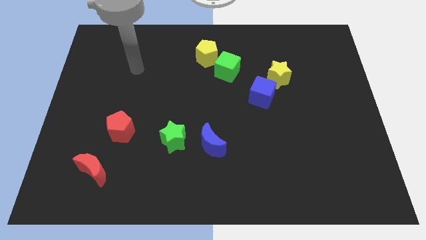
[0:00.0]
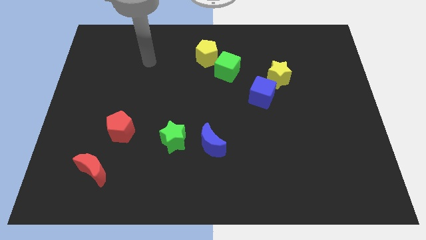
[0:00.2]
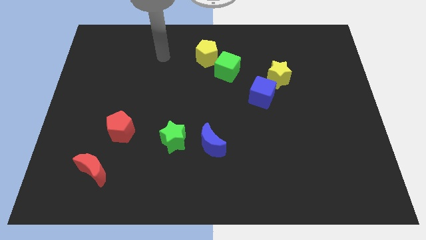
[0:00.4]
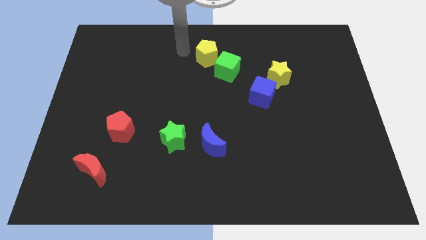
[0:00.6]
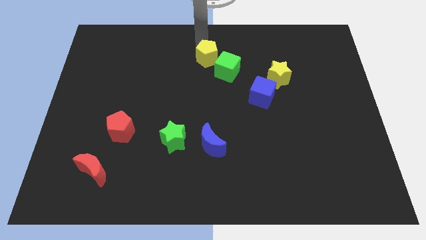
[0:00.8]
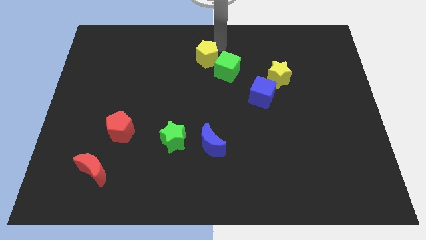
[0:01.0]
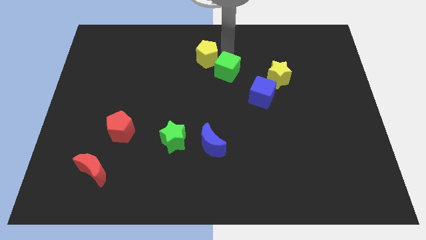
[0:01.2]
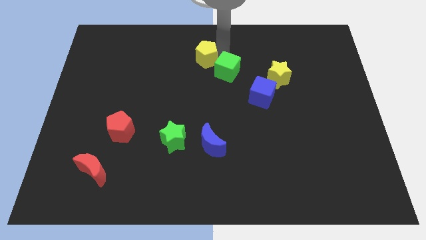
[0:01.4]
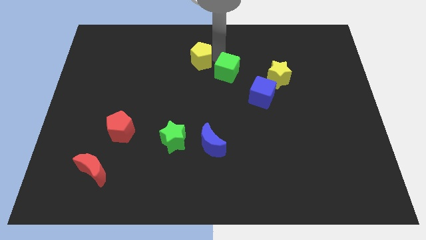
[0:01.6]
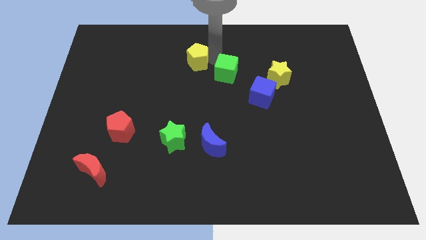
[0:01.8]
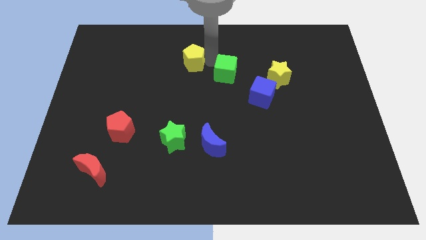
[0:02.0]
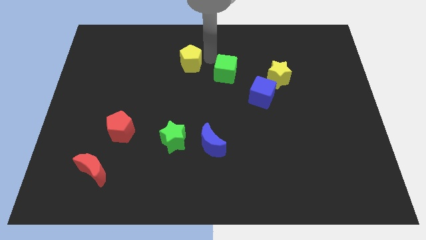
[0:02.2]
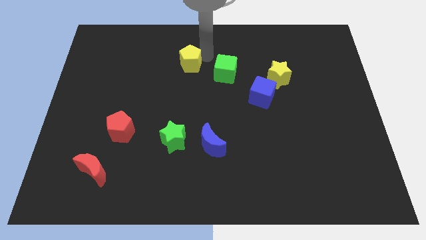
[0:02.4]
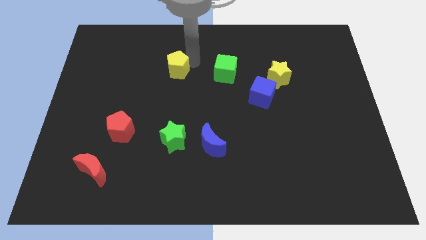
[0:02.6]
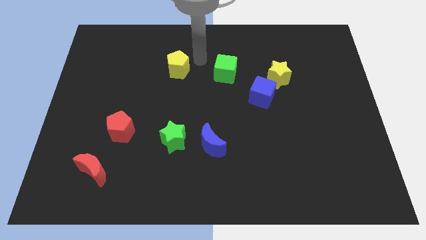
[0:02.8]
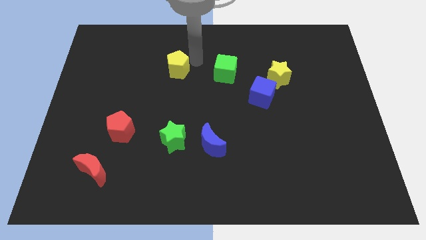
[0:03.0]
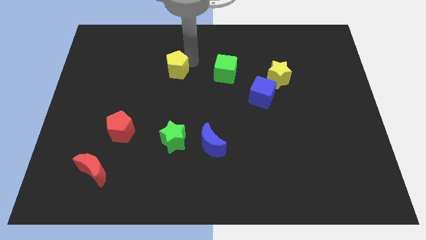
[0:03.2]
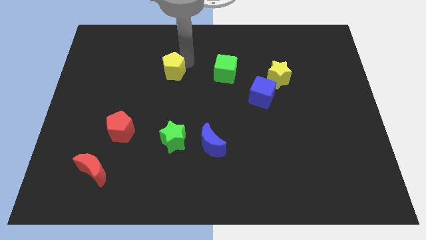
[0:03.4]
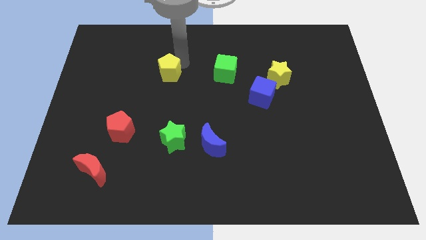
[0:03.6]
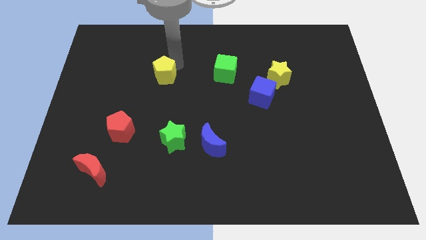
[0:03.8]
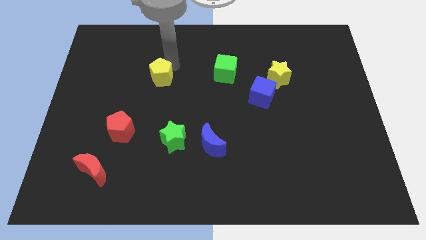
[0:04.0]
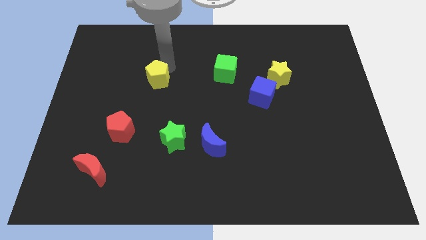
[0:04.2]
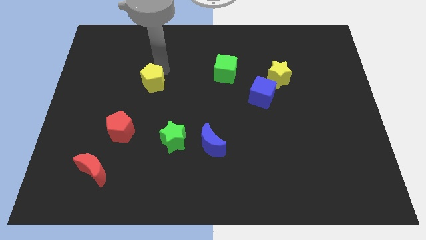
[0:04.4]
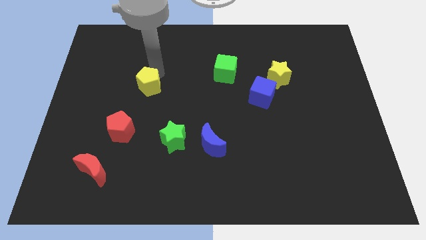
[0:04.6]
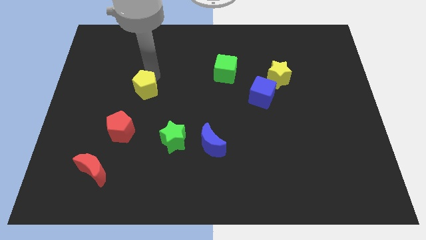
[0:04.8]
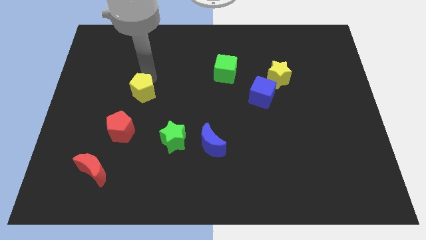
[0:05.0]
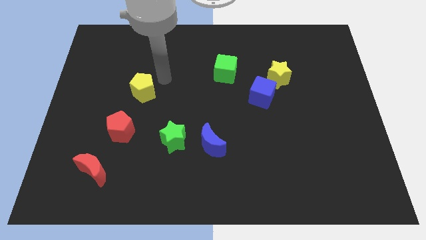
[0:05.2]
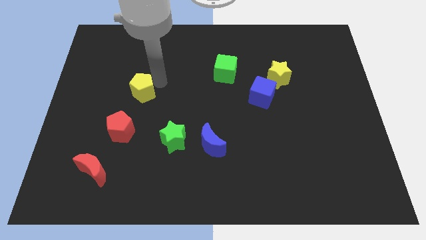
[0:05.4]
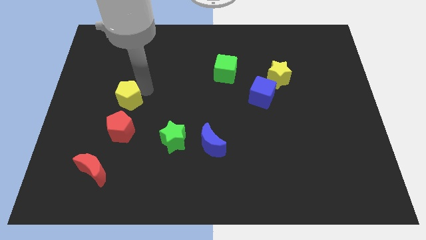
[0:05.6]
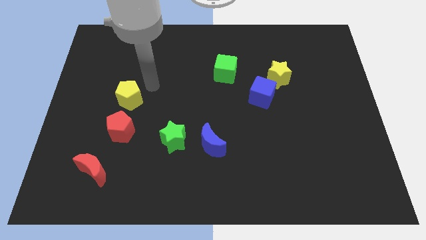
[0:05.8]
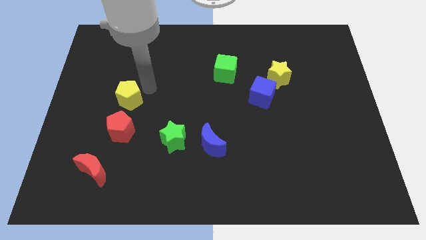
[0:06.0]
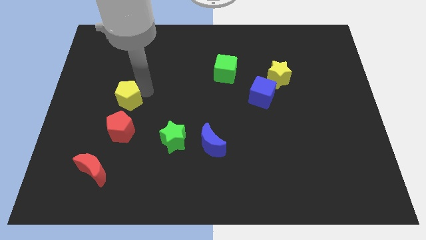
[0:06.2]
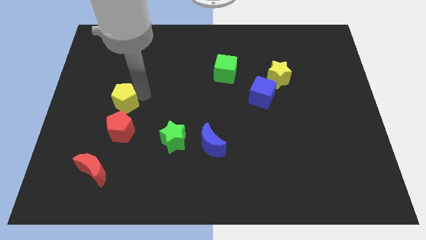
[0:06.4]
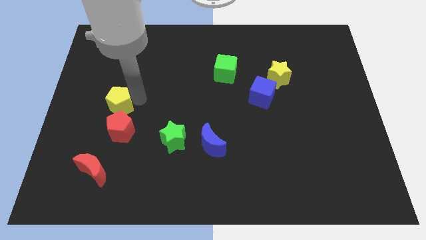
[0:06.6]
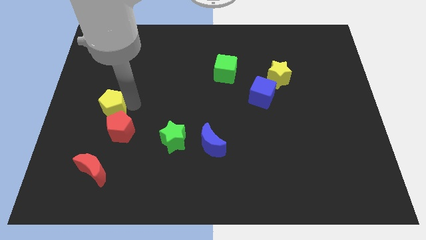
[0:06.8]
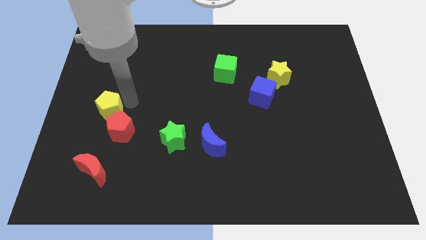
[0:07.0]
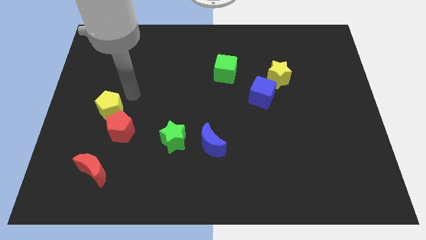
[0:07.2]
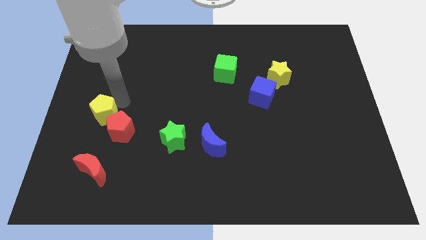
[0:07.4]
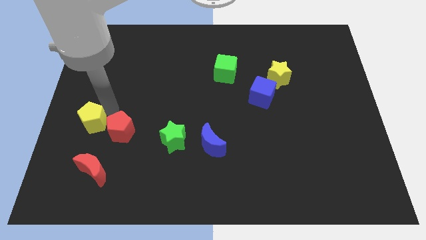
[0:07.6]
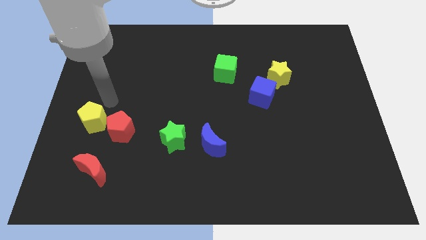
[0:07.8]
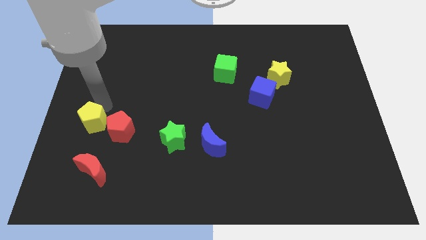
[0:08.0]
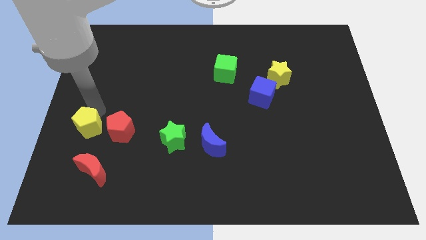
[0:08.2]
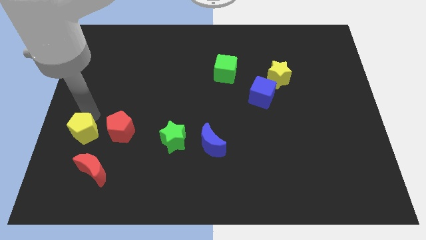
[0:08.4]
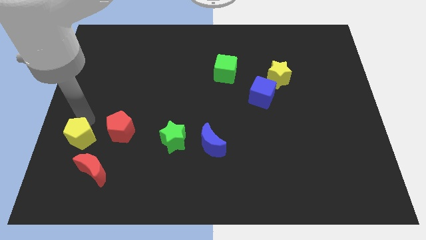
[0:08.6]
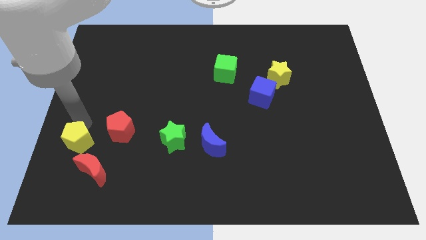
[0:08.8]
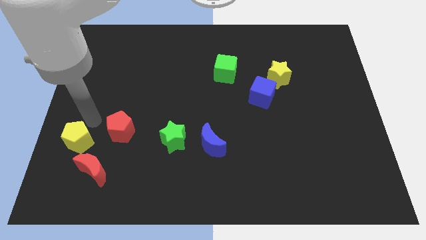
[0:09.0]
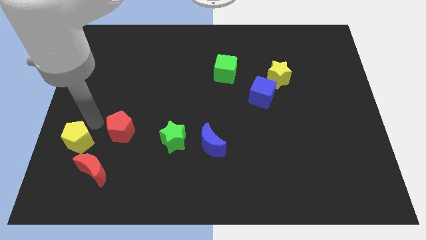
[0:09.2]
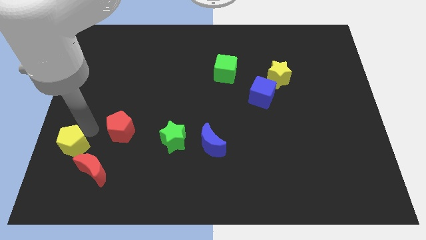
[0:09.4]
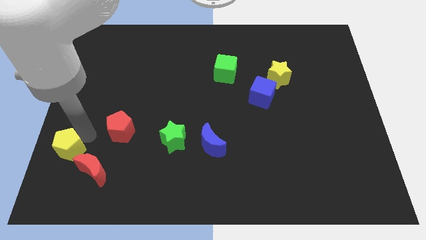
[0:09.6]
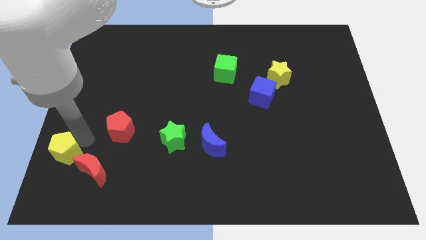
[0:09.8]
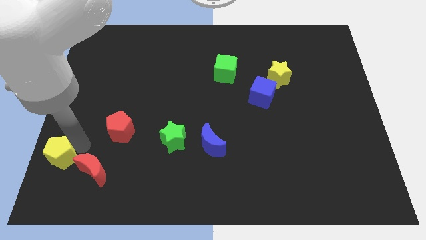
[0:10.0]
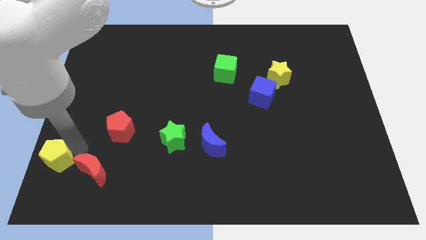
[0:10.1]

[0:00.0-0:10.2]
put the yellow pentagon to the bottom left corner

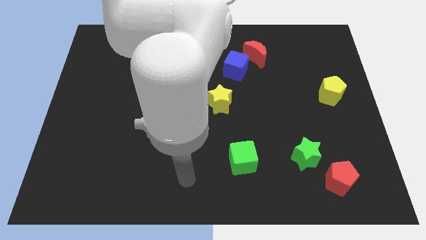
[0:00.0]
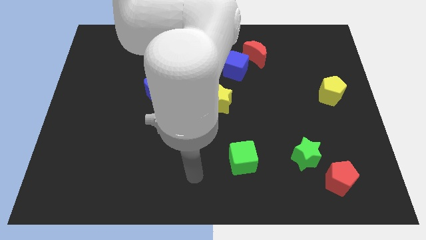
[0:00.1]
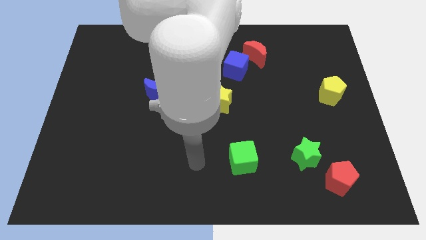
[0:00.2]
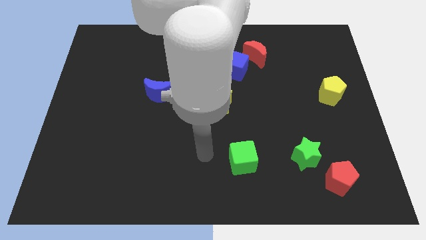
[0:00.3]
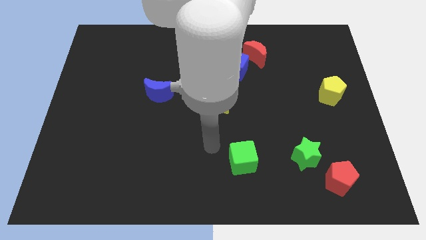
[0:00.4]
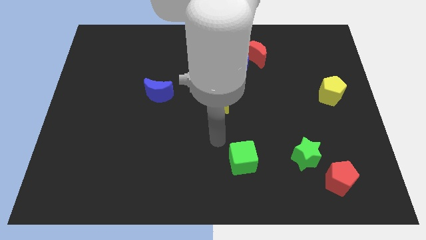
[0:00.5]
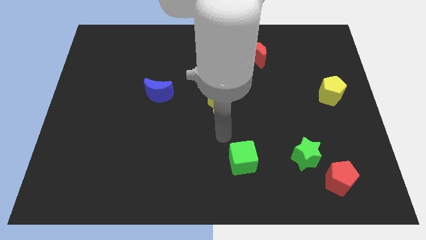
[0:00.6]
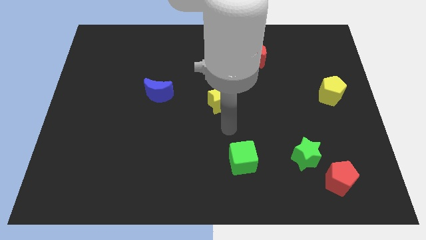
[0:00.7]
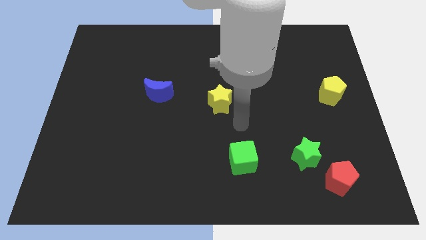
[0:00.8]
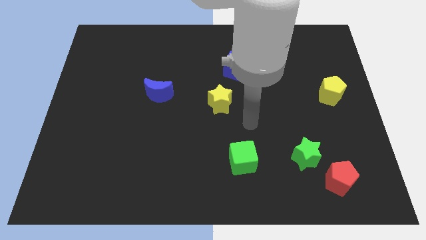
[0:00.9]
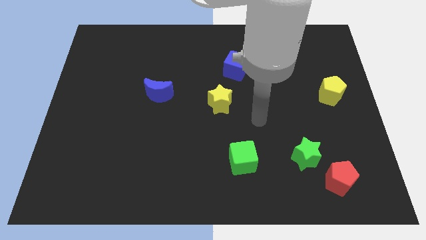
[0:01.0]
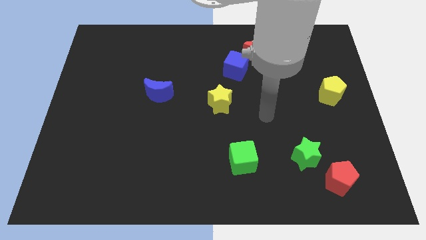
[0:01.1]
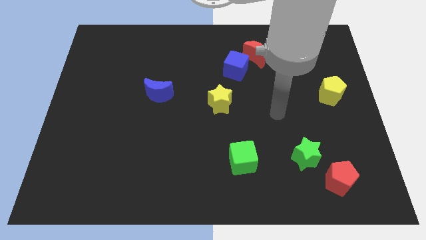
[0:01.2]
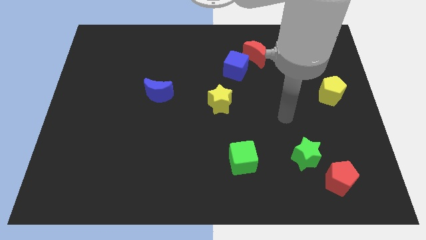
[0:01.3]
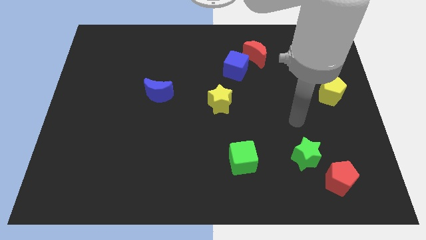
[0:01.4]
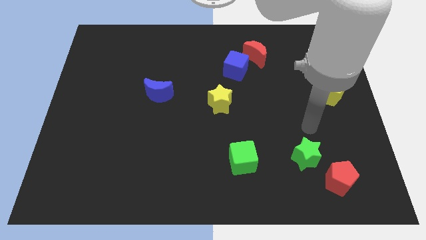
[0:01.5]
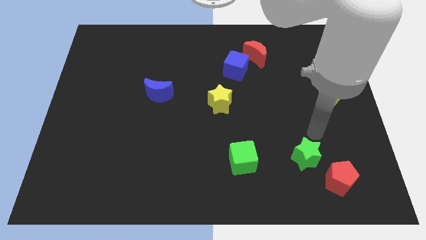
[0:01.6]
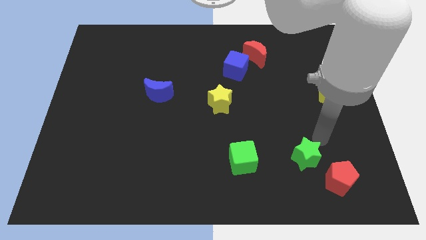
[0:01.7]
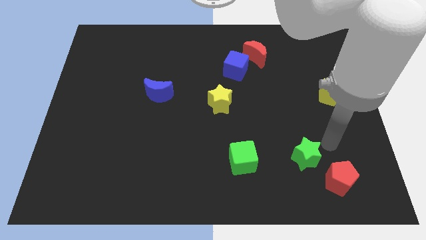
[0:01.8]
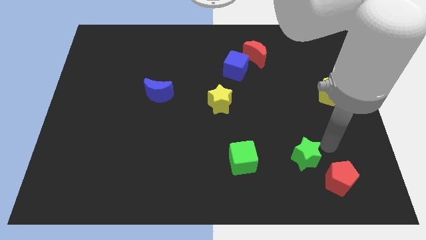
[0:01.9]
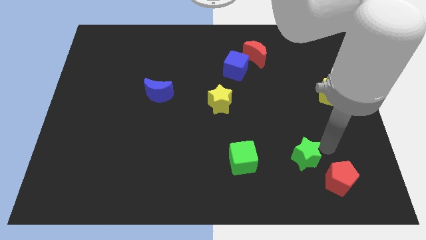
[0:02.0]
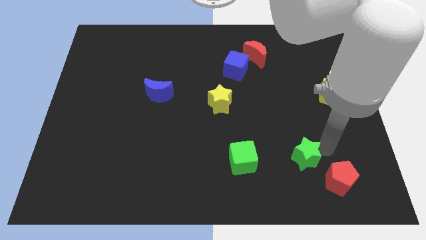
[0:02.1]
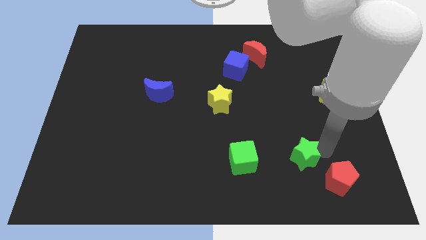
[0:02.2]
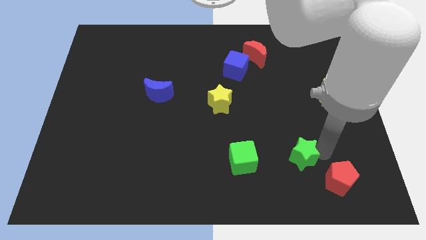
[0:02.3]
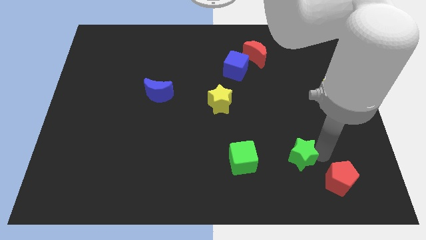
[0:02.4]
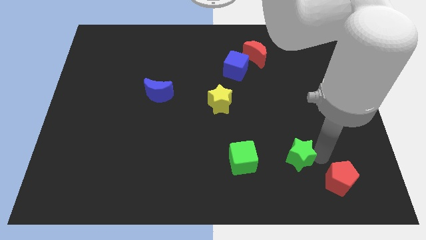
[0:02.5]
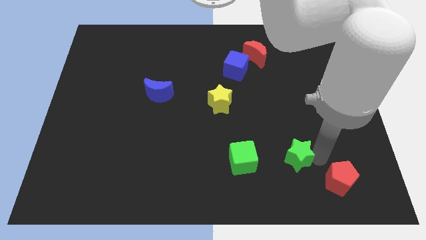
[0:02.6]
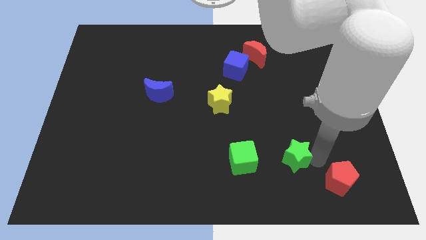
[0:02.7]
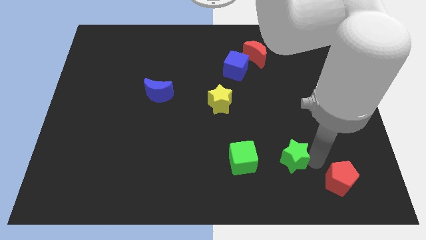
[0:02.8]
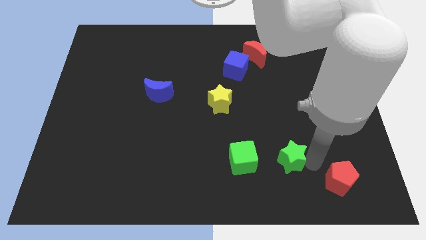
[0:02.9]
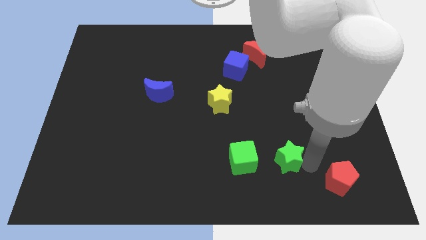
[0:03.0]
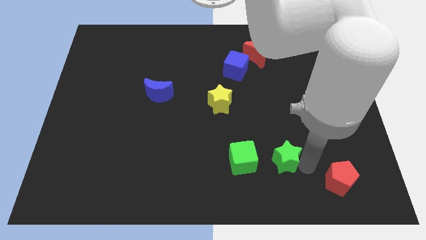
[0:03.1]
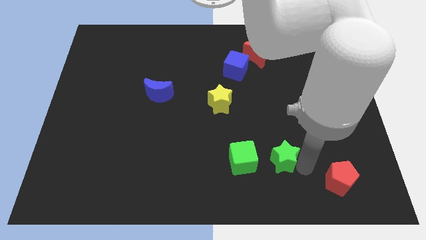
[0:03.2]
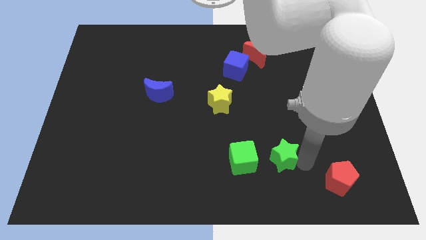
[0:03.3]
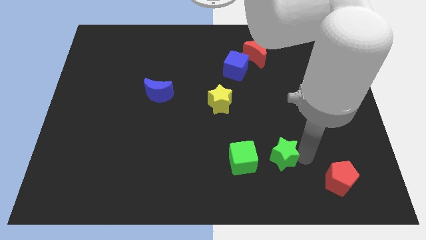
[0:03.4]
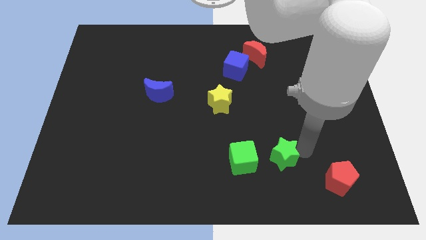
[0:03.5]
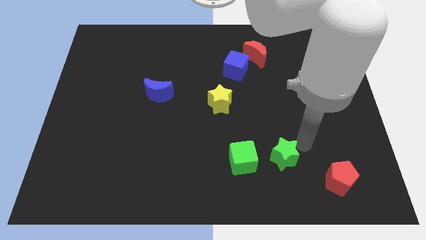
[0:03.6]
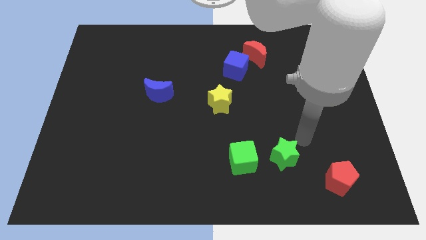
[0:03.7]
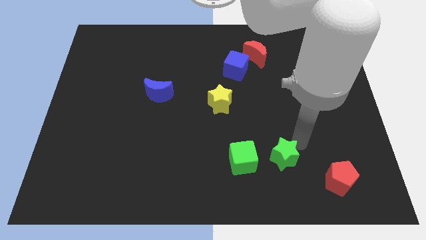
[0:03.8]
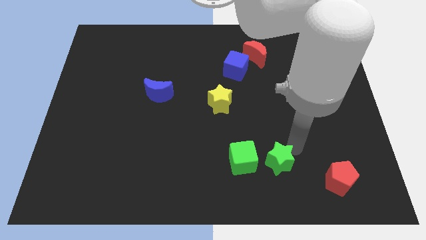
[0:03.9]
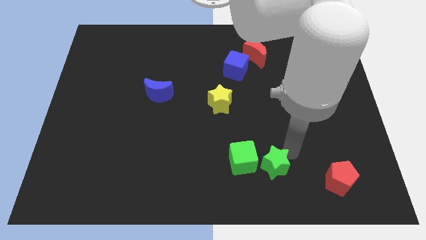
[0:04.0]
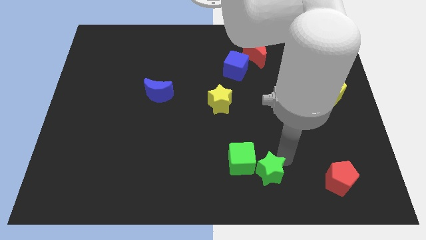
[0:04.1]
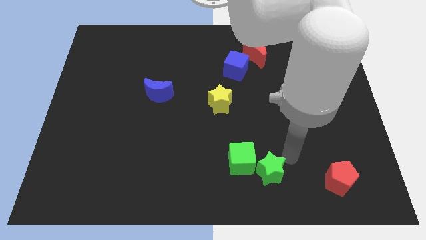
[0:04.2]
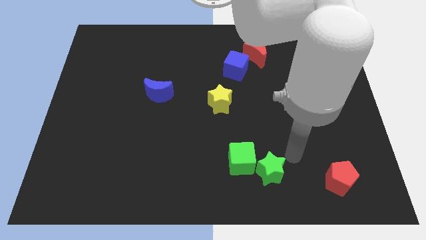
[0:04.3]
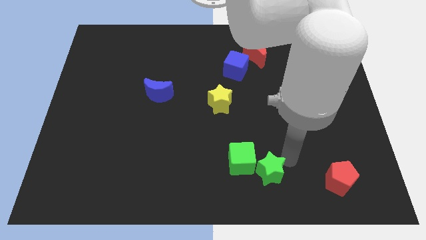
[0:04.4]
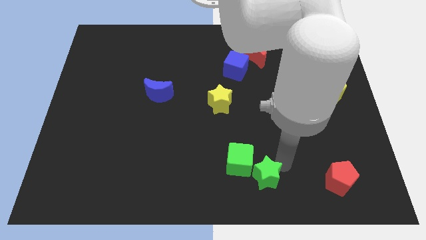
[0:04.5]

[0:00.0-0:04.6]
slide the green star to the bottom
